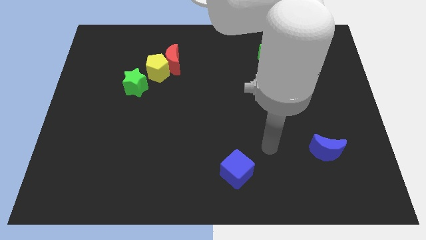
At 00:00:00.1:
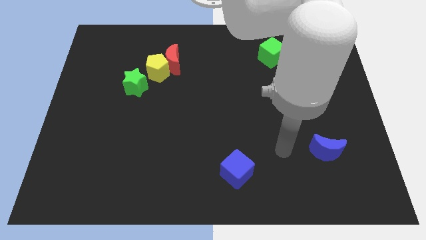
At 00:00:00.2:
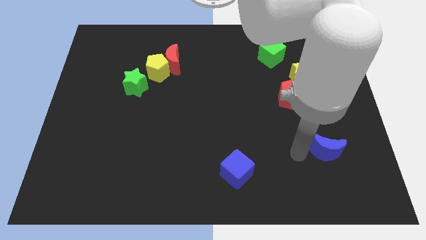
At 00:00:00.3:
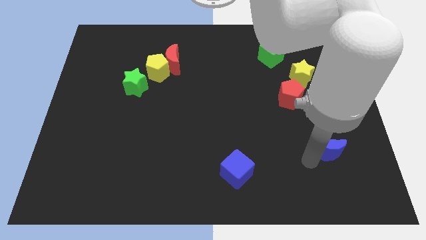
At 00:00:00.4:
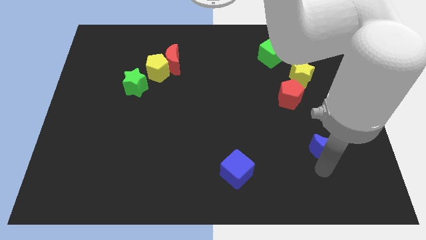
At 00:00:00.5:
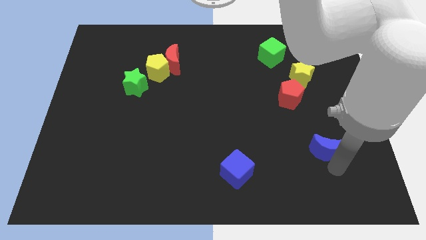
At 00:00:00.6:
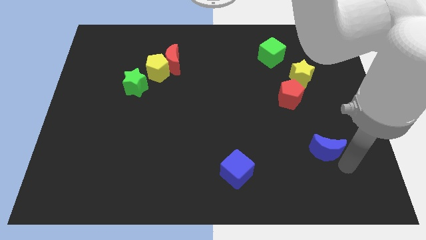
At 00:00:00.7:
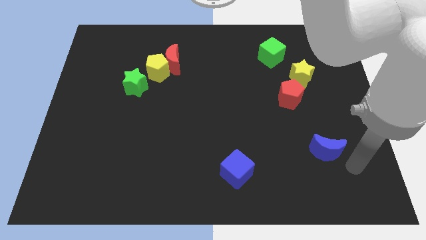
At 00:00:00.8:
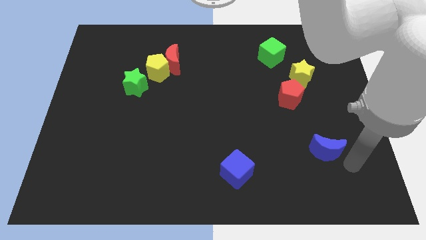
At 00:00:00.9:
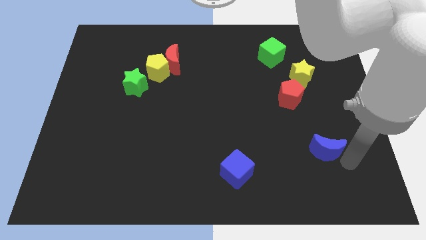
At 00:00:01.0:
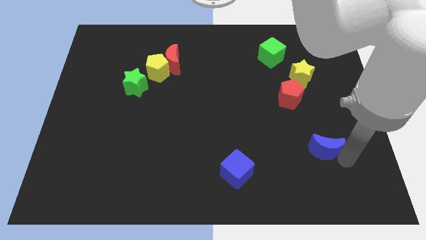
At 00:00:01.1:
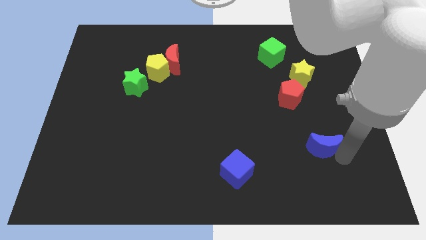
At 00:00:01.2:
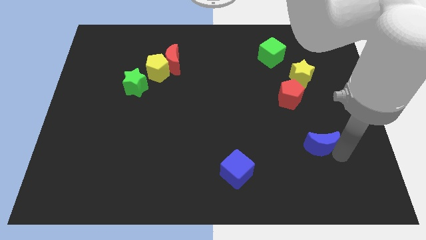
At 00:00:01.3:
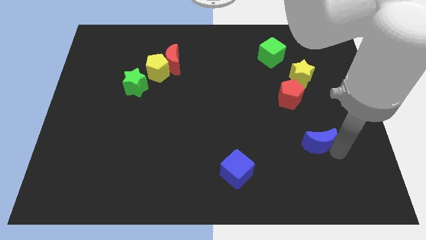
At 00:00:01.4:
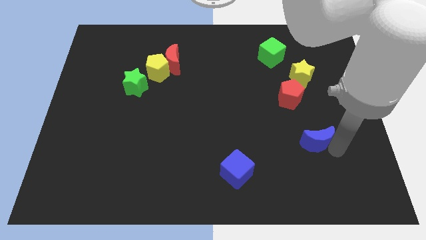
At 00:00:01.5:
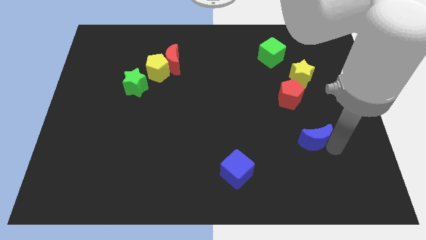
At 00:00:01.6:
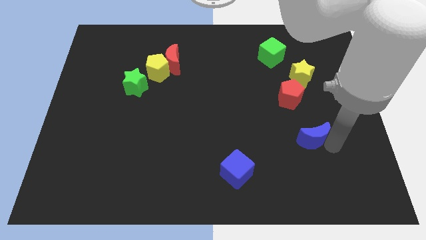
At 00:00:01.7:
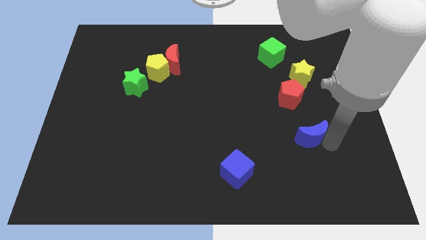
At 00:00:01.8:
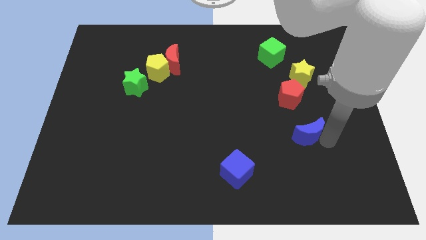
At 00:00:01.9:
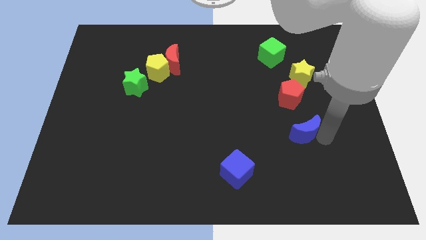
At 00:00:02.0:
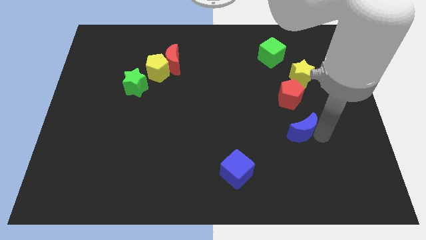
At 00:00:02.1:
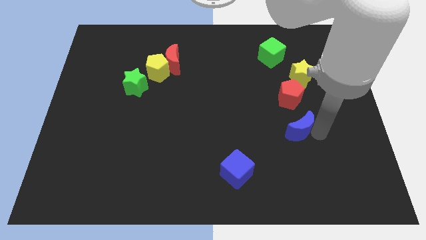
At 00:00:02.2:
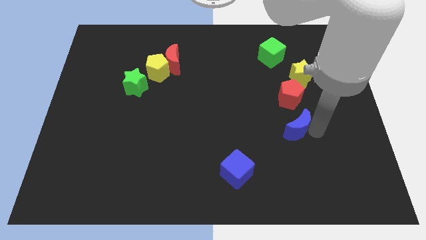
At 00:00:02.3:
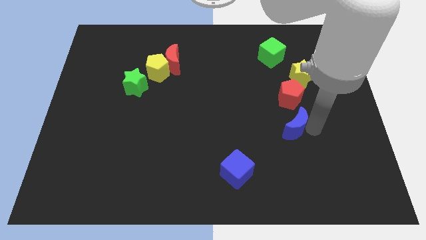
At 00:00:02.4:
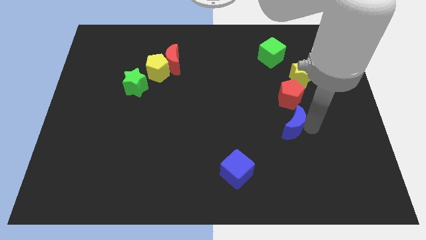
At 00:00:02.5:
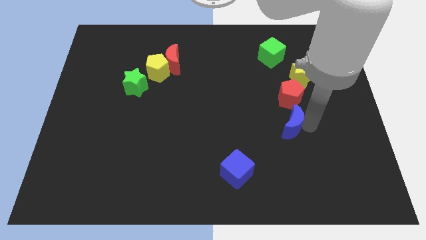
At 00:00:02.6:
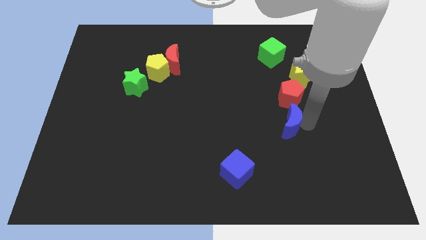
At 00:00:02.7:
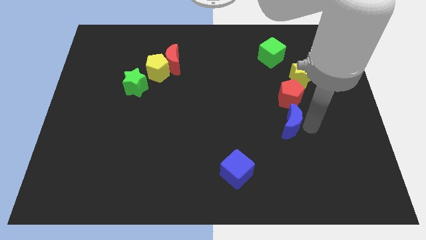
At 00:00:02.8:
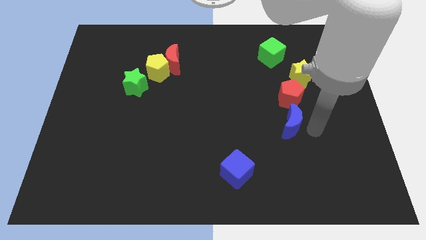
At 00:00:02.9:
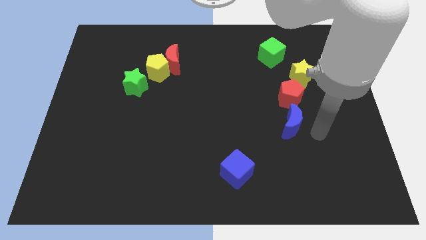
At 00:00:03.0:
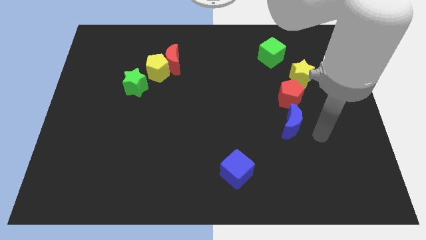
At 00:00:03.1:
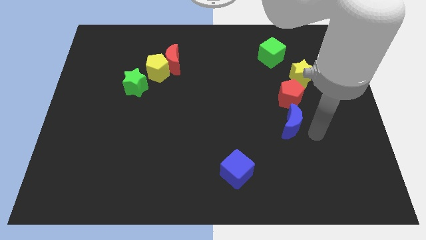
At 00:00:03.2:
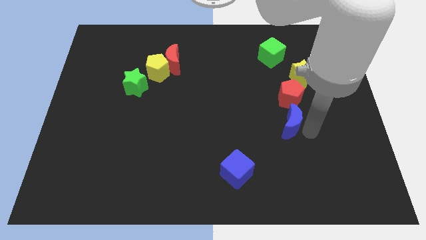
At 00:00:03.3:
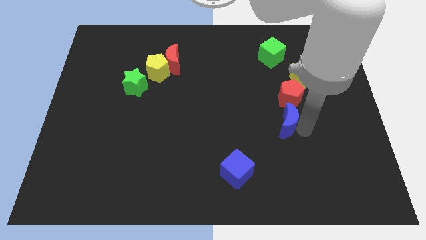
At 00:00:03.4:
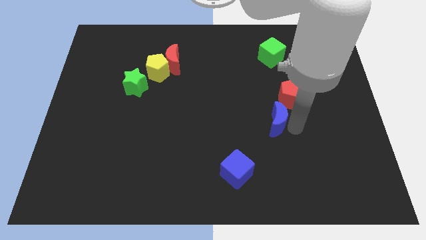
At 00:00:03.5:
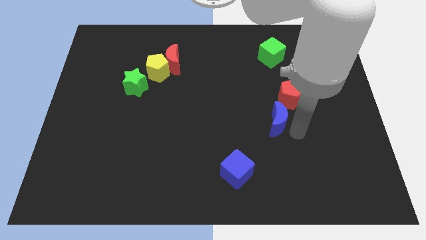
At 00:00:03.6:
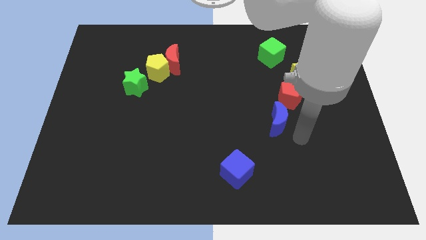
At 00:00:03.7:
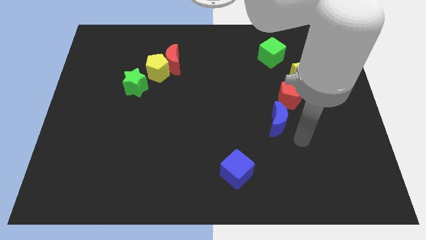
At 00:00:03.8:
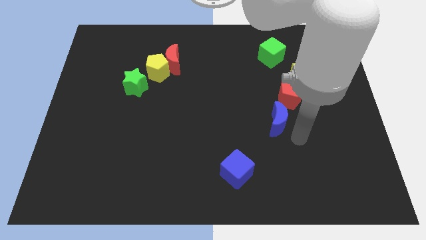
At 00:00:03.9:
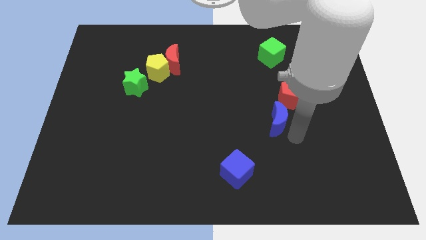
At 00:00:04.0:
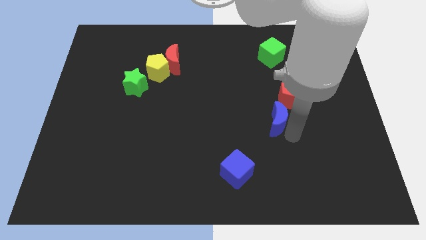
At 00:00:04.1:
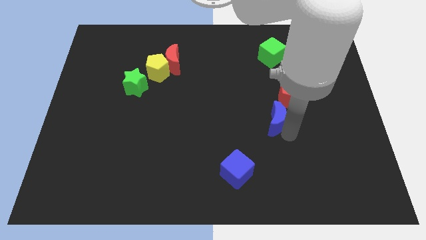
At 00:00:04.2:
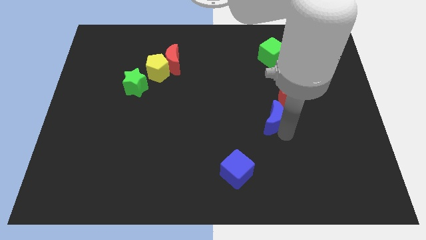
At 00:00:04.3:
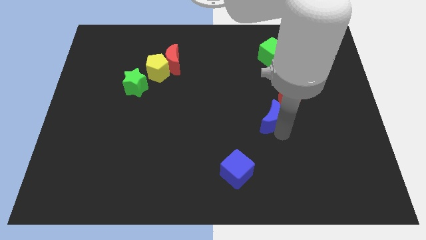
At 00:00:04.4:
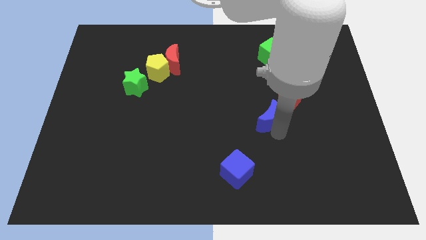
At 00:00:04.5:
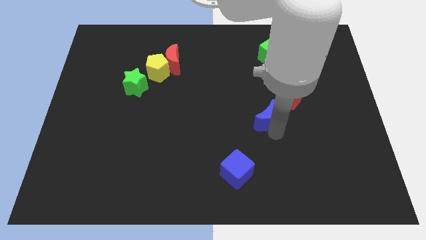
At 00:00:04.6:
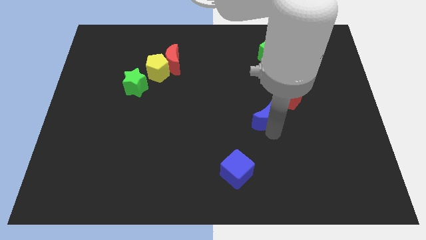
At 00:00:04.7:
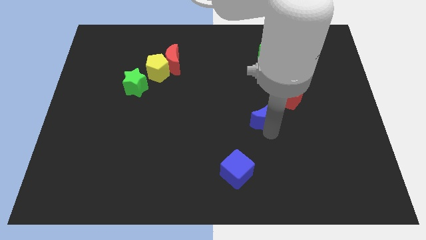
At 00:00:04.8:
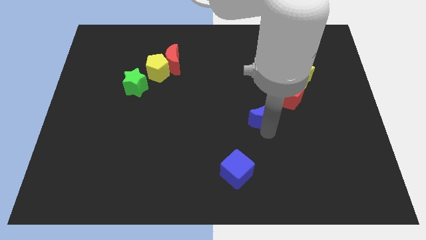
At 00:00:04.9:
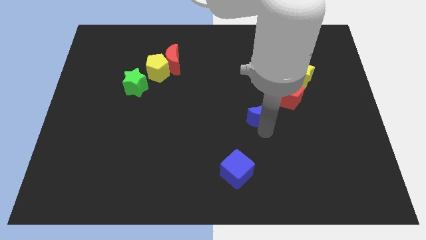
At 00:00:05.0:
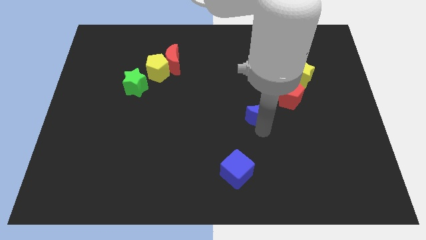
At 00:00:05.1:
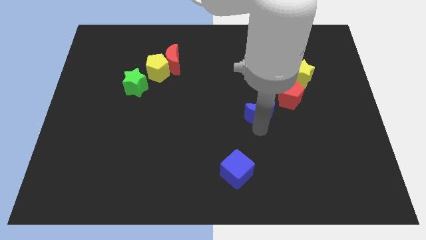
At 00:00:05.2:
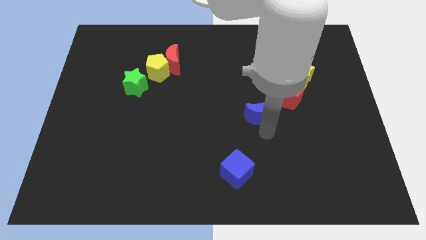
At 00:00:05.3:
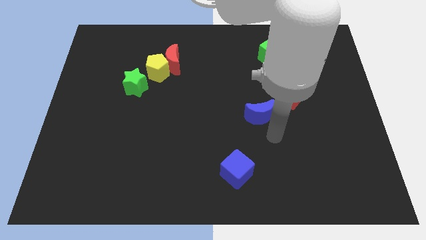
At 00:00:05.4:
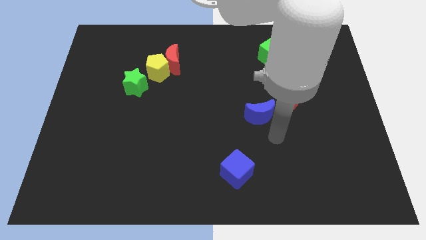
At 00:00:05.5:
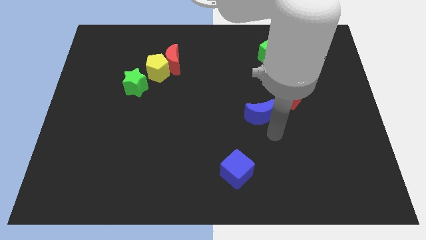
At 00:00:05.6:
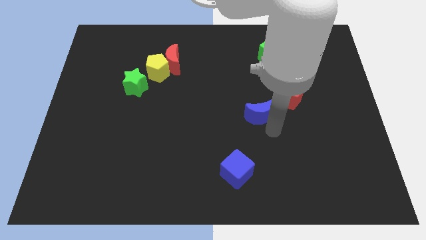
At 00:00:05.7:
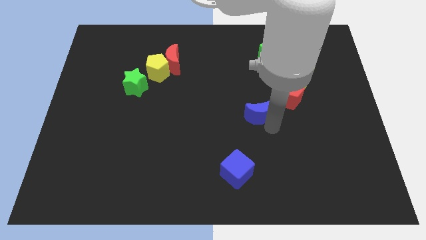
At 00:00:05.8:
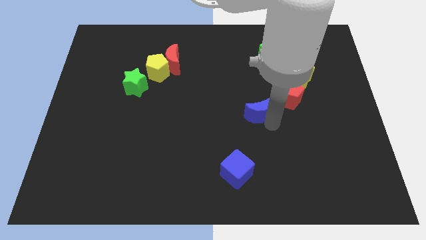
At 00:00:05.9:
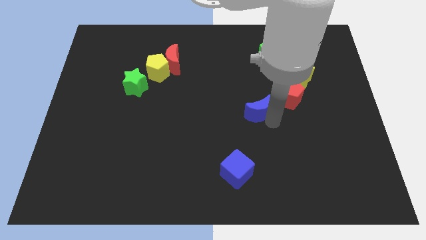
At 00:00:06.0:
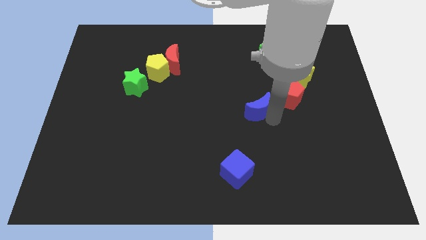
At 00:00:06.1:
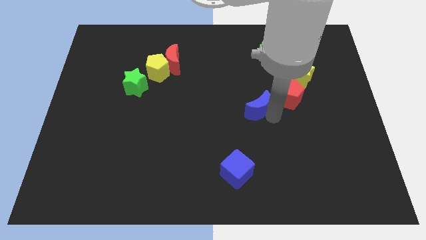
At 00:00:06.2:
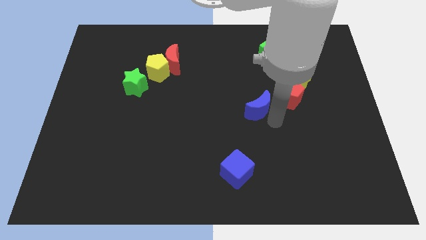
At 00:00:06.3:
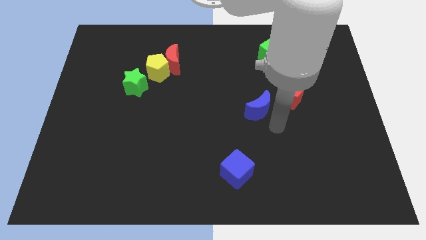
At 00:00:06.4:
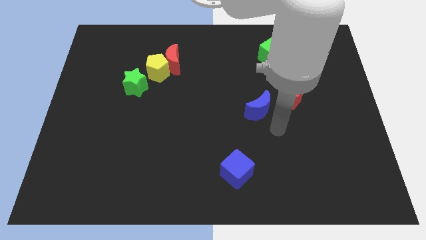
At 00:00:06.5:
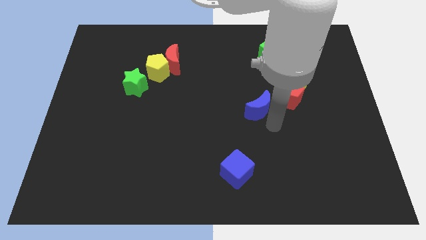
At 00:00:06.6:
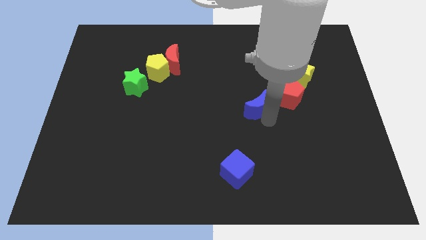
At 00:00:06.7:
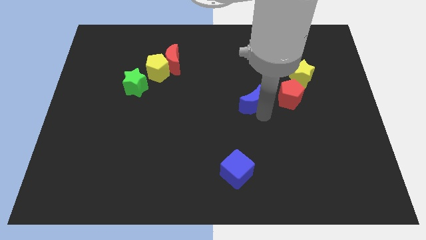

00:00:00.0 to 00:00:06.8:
push the blue moon up and to the left

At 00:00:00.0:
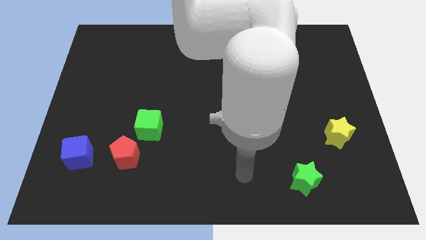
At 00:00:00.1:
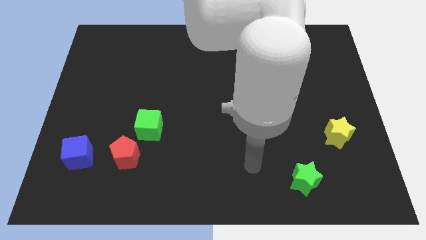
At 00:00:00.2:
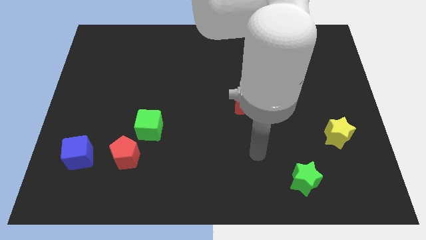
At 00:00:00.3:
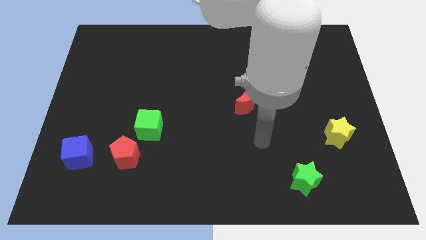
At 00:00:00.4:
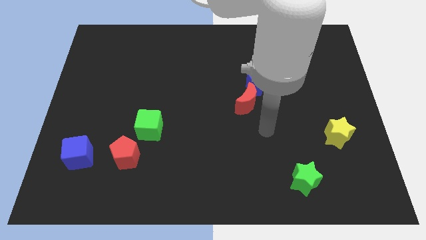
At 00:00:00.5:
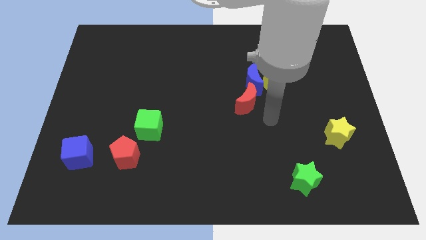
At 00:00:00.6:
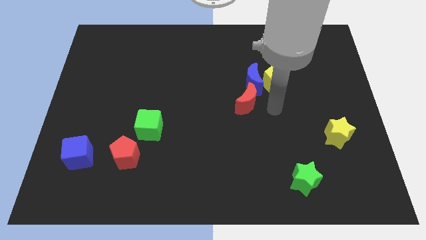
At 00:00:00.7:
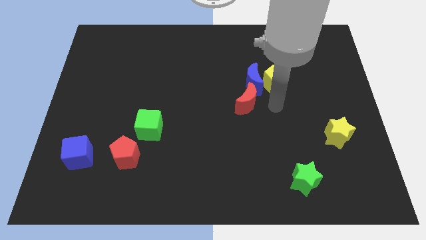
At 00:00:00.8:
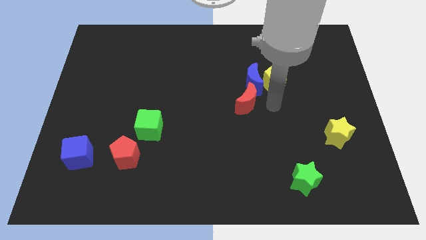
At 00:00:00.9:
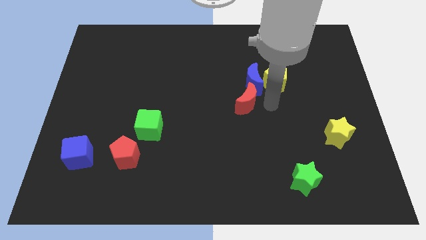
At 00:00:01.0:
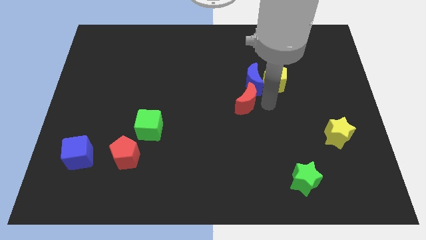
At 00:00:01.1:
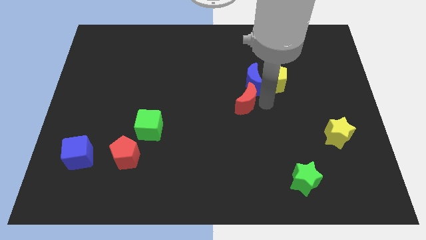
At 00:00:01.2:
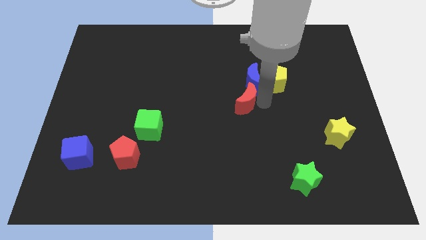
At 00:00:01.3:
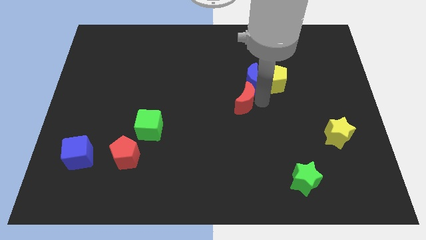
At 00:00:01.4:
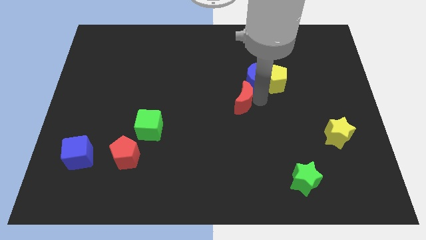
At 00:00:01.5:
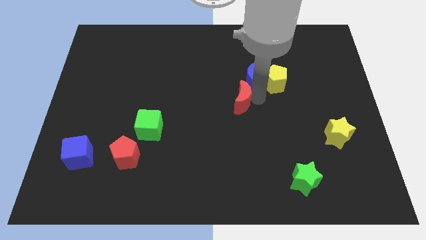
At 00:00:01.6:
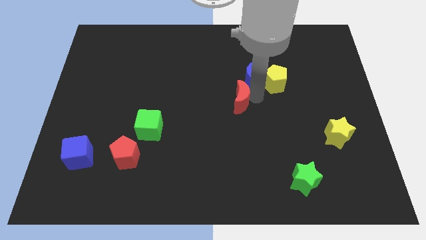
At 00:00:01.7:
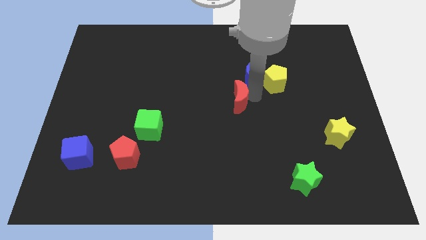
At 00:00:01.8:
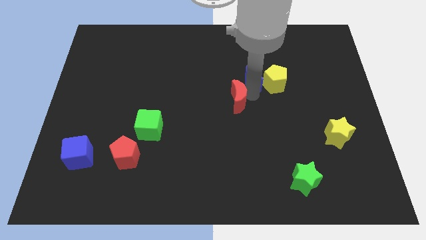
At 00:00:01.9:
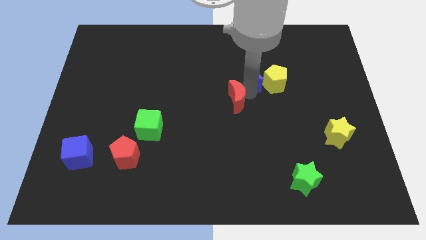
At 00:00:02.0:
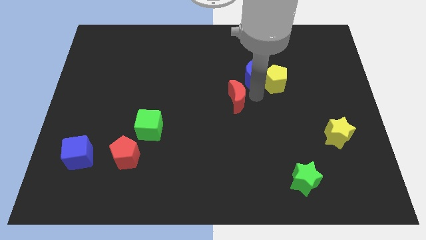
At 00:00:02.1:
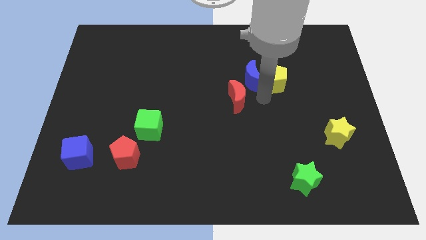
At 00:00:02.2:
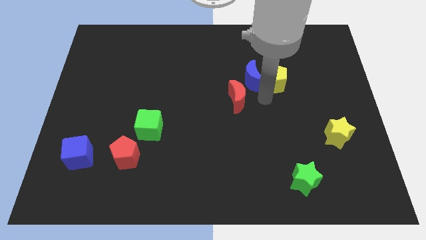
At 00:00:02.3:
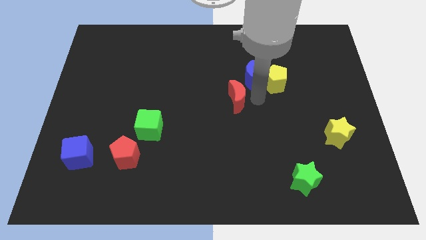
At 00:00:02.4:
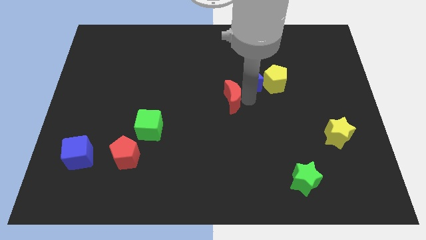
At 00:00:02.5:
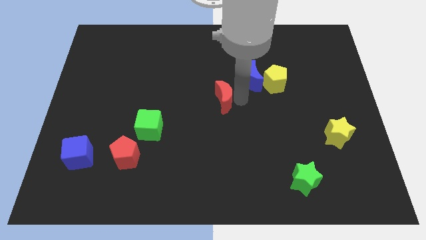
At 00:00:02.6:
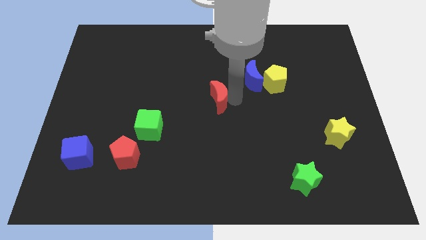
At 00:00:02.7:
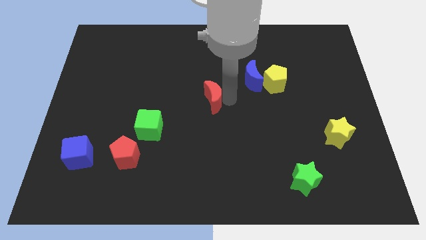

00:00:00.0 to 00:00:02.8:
slide the red moon left slightly
